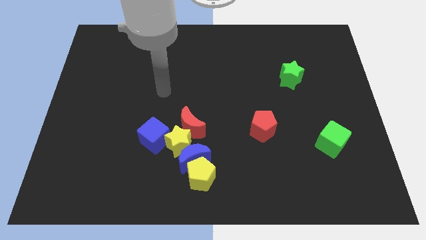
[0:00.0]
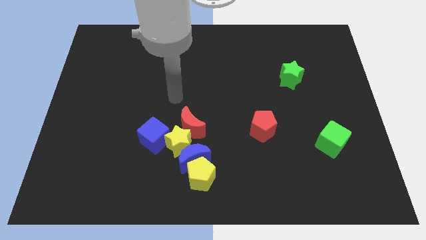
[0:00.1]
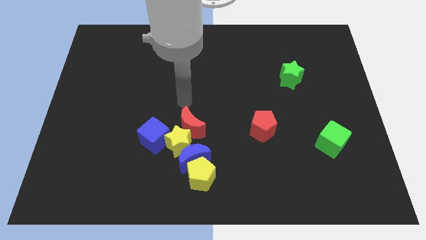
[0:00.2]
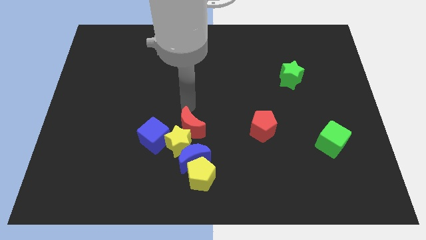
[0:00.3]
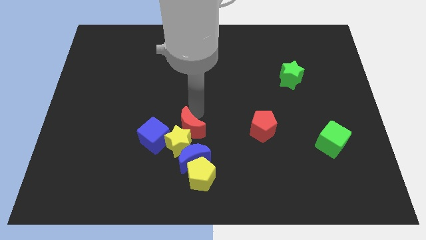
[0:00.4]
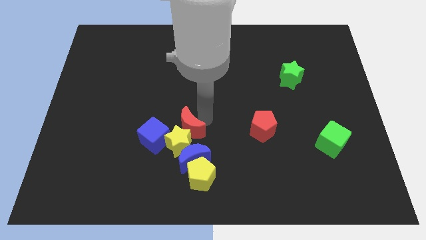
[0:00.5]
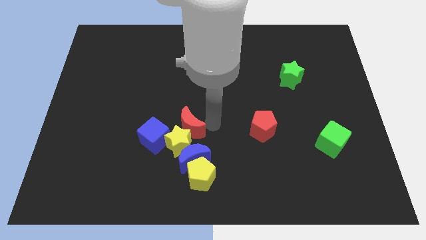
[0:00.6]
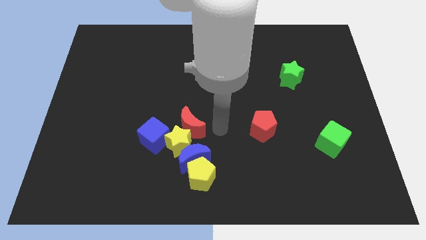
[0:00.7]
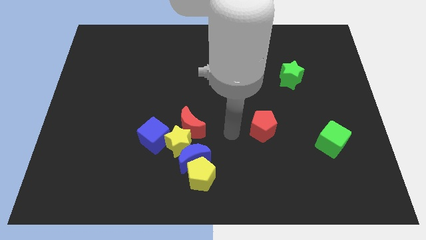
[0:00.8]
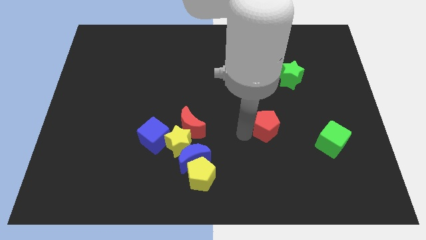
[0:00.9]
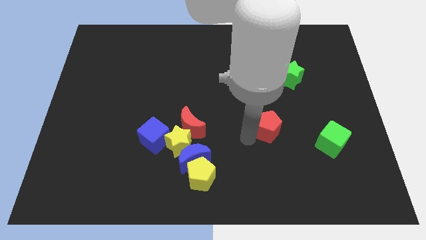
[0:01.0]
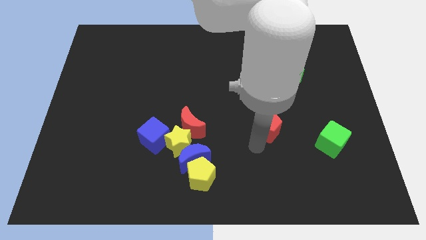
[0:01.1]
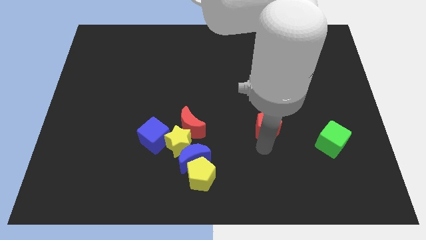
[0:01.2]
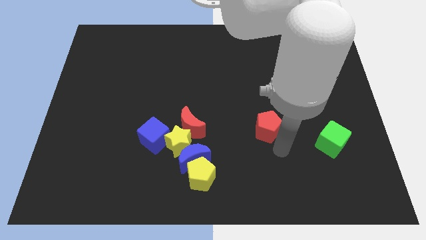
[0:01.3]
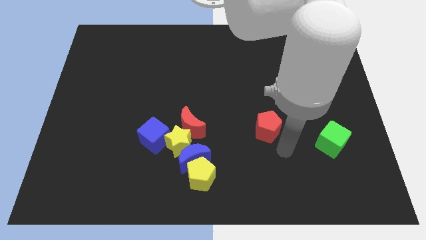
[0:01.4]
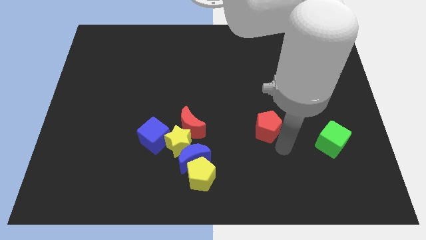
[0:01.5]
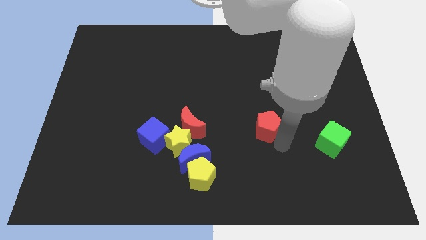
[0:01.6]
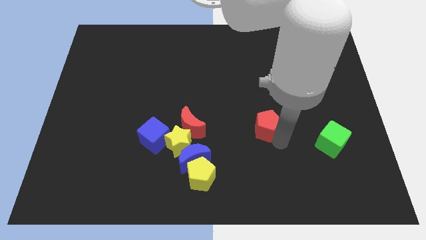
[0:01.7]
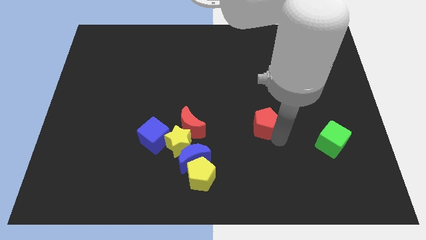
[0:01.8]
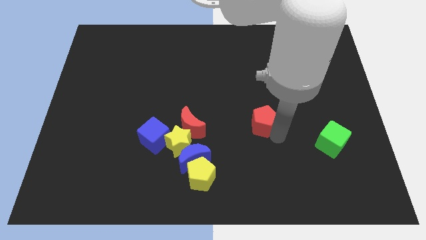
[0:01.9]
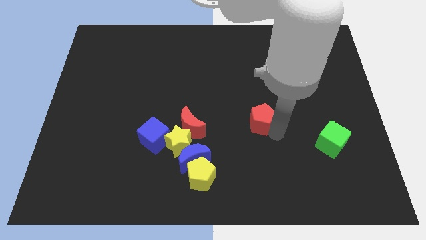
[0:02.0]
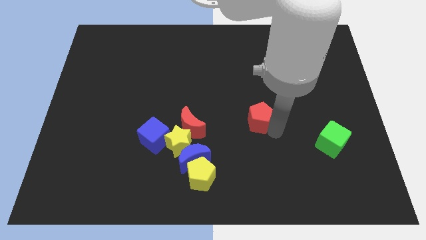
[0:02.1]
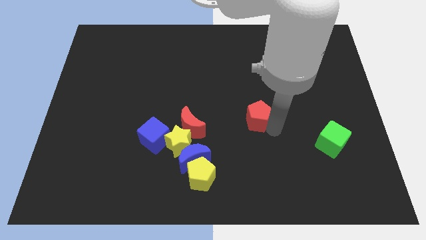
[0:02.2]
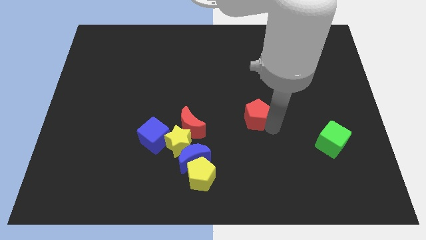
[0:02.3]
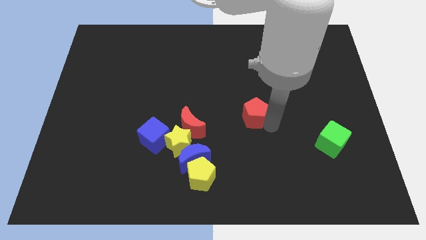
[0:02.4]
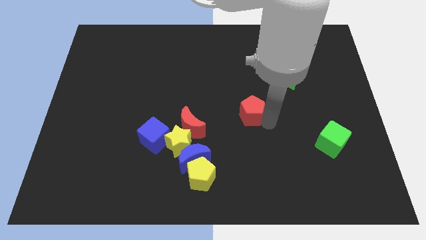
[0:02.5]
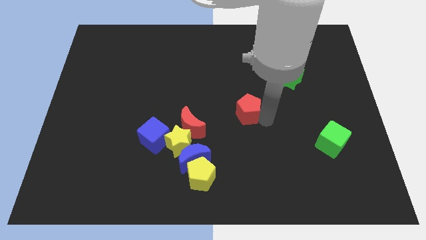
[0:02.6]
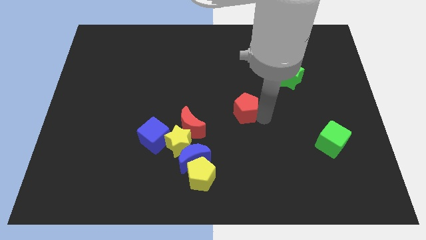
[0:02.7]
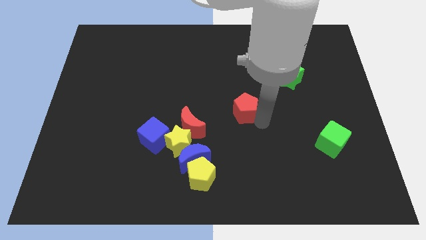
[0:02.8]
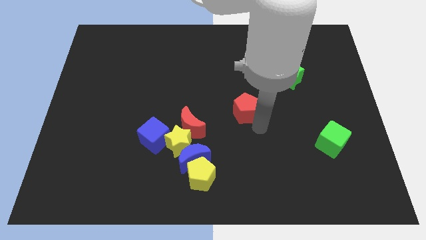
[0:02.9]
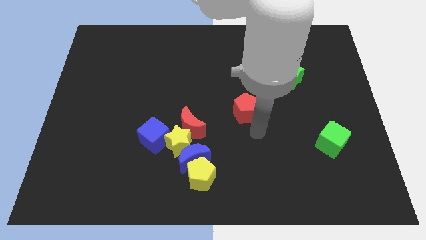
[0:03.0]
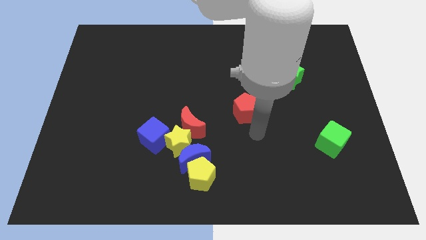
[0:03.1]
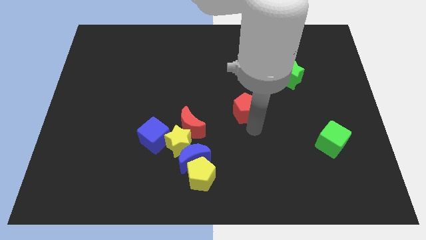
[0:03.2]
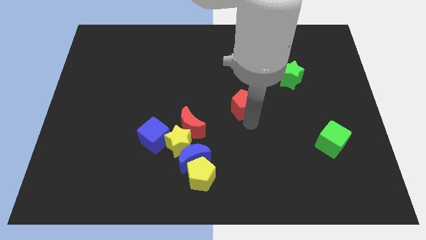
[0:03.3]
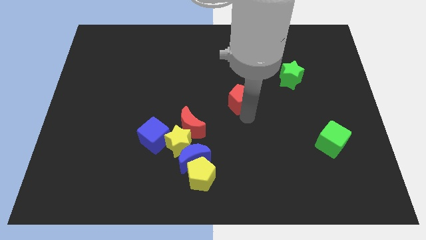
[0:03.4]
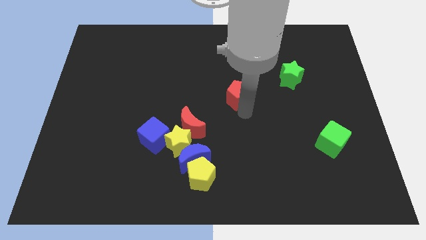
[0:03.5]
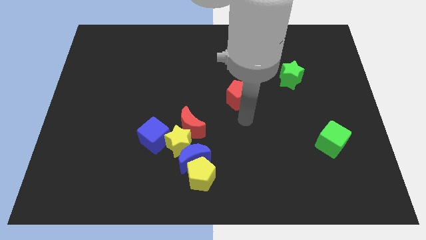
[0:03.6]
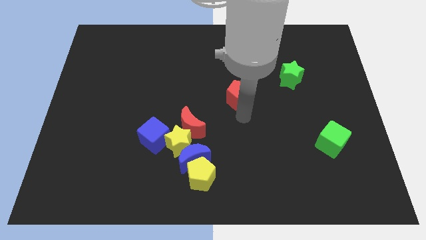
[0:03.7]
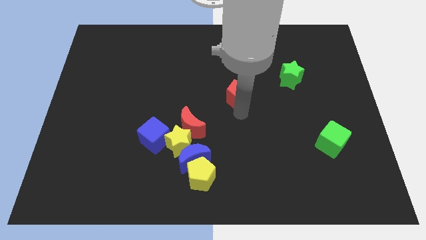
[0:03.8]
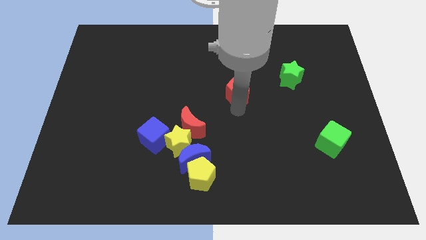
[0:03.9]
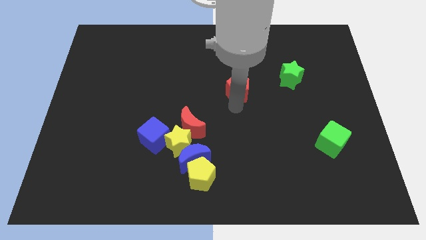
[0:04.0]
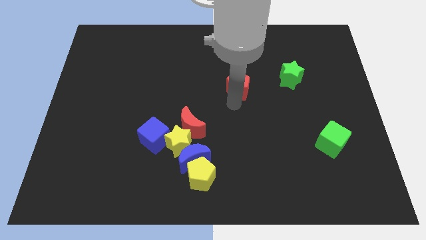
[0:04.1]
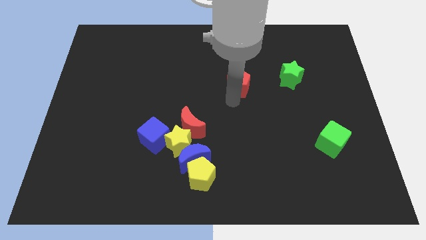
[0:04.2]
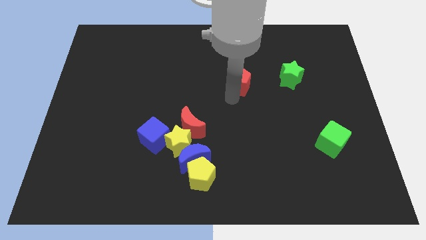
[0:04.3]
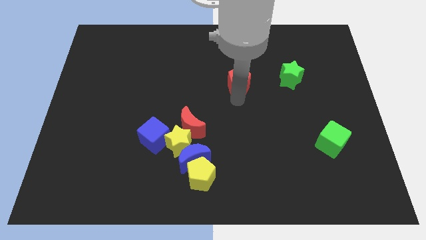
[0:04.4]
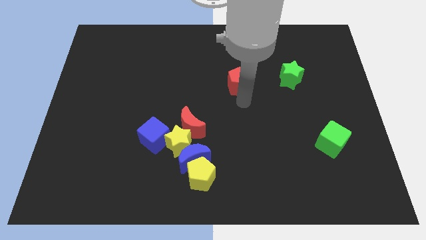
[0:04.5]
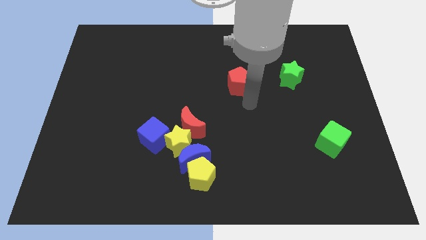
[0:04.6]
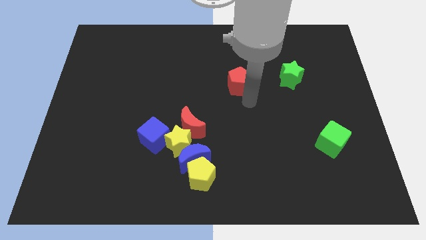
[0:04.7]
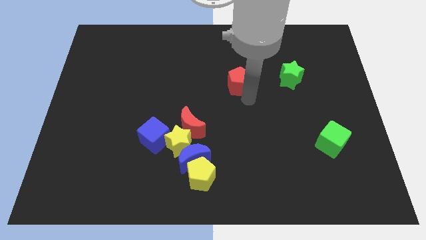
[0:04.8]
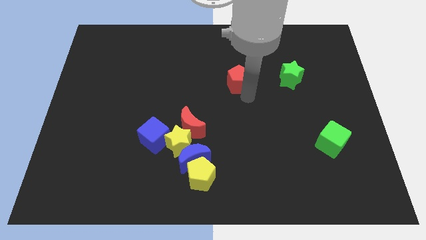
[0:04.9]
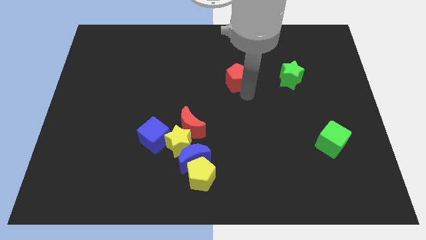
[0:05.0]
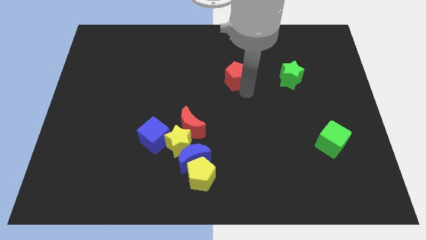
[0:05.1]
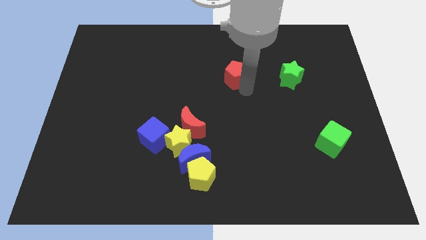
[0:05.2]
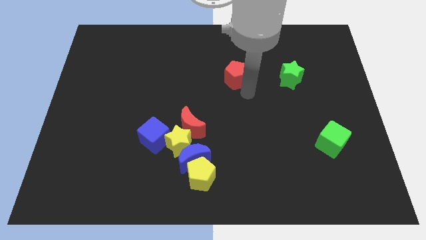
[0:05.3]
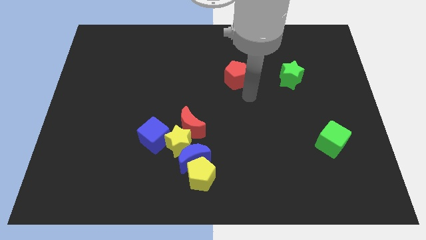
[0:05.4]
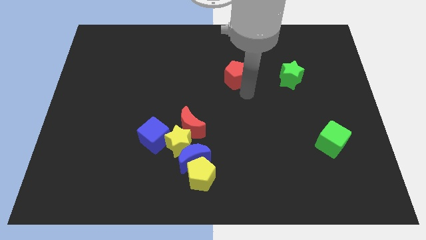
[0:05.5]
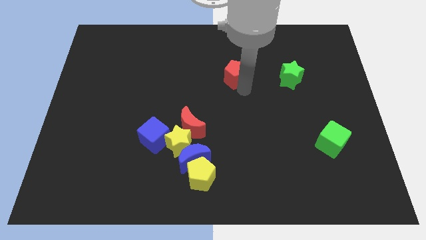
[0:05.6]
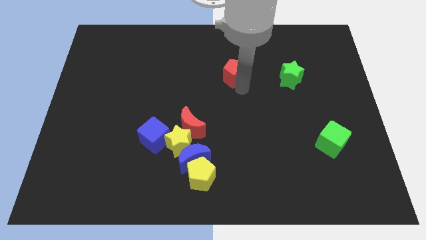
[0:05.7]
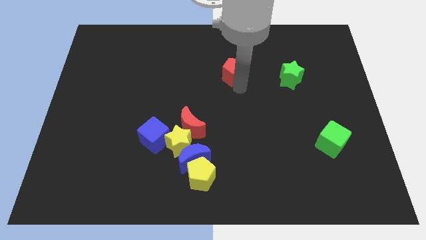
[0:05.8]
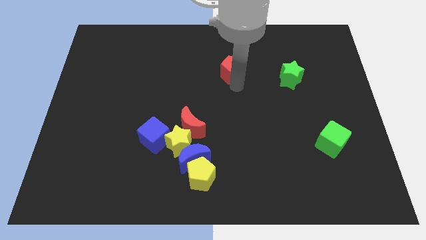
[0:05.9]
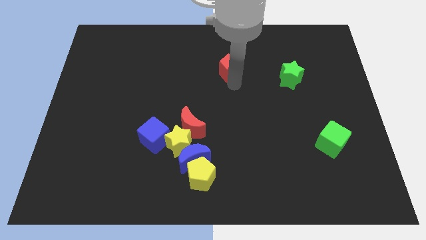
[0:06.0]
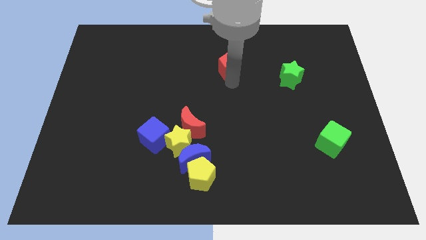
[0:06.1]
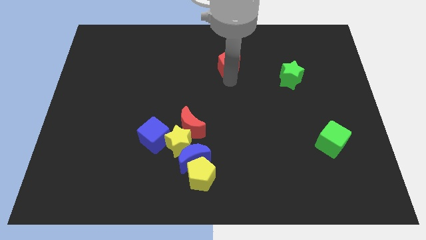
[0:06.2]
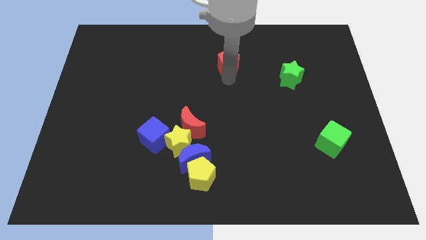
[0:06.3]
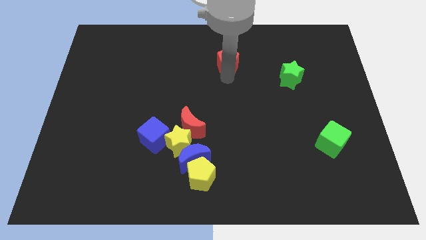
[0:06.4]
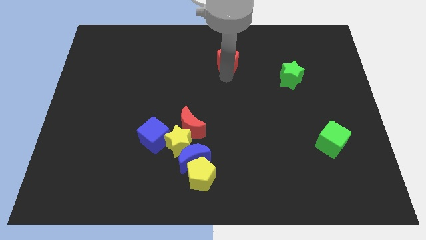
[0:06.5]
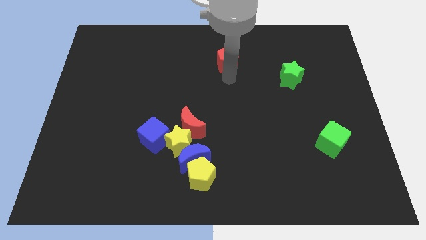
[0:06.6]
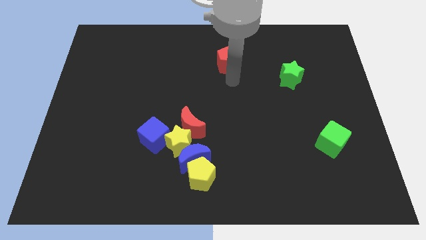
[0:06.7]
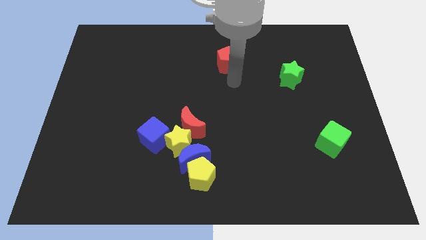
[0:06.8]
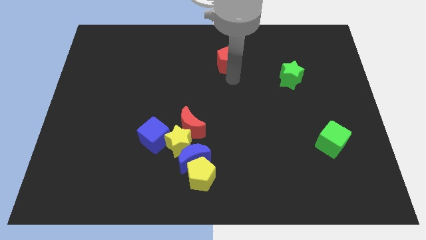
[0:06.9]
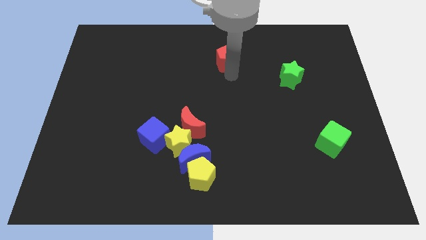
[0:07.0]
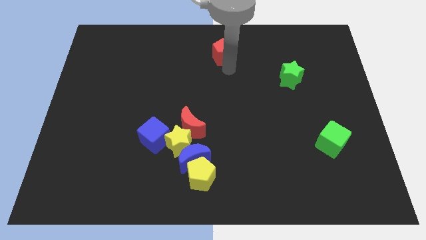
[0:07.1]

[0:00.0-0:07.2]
push the red pentagon to the top side
